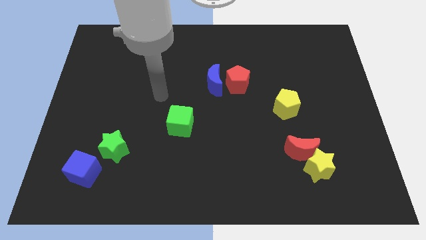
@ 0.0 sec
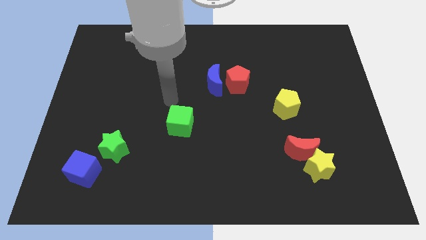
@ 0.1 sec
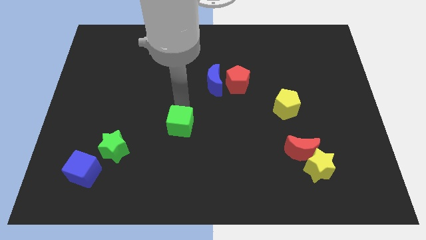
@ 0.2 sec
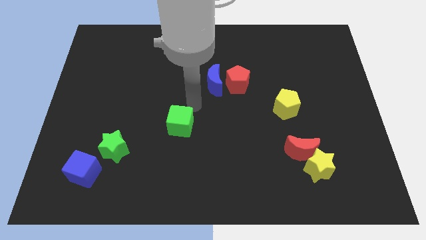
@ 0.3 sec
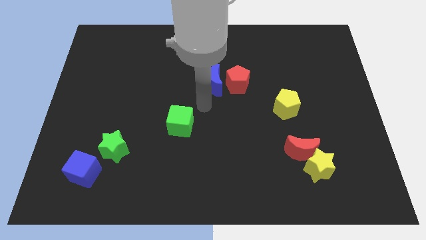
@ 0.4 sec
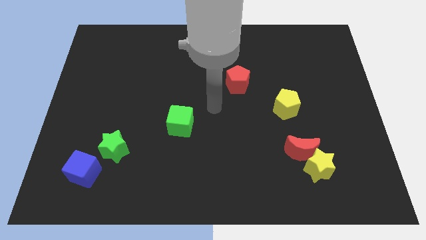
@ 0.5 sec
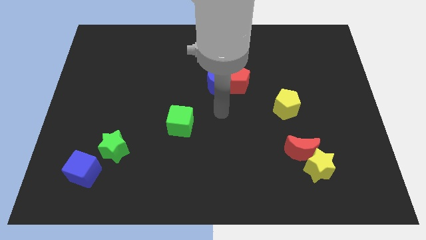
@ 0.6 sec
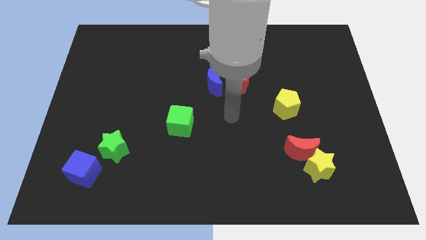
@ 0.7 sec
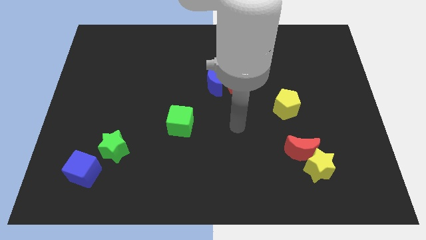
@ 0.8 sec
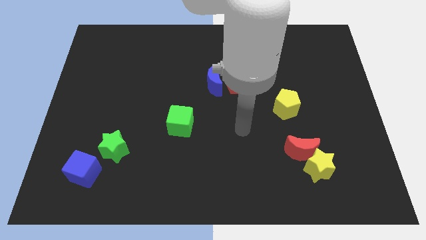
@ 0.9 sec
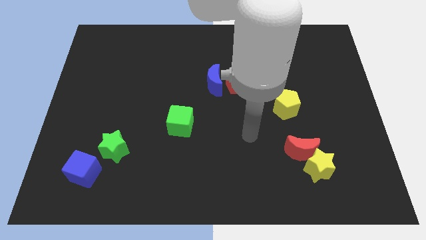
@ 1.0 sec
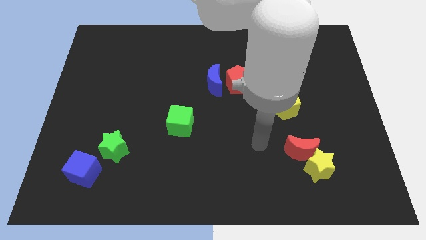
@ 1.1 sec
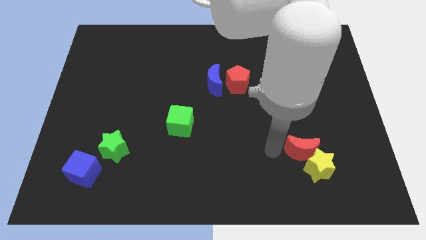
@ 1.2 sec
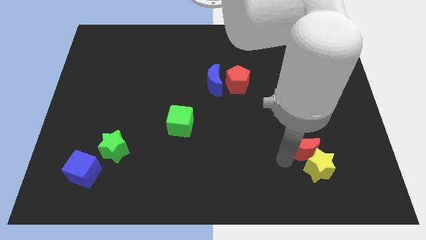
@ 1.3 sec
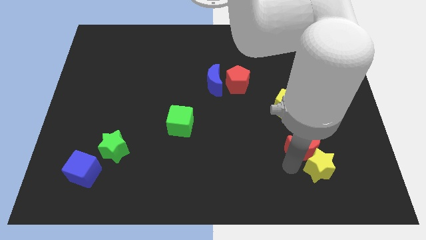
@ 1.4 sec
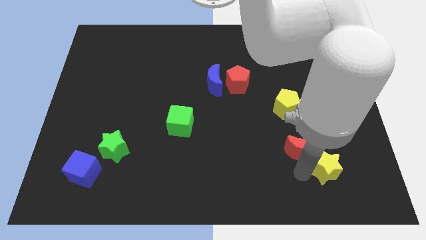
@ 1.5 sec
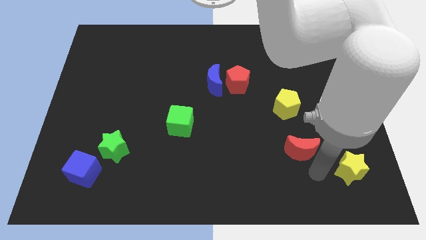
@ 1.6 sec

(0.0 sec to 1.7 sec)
separate the red moon from the yellow star

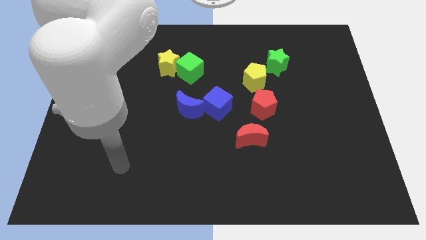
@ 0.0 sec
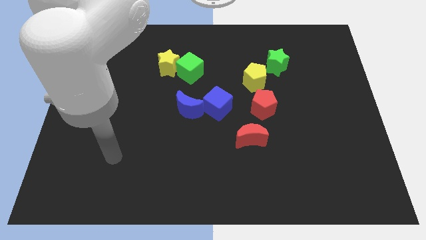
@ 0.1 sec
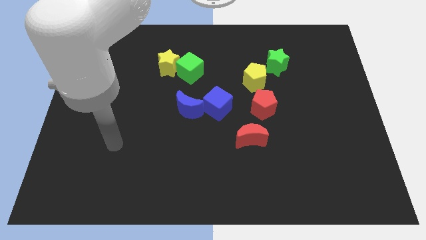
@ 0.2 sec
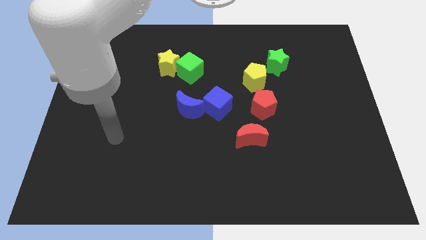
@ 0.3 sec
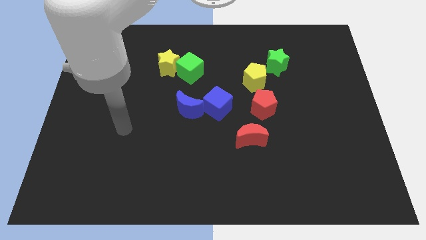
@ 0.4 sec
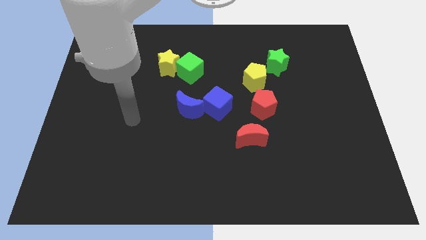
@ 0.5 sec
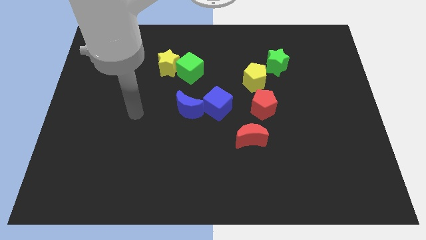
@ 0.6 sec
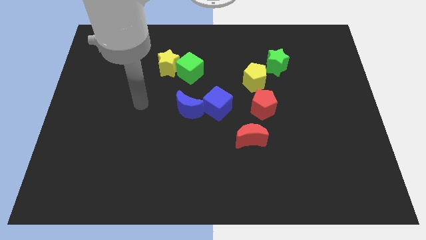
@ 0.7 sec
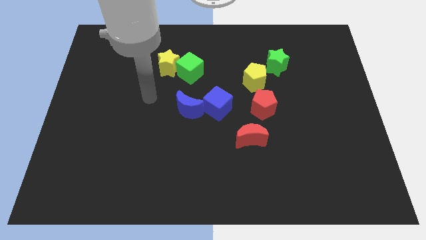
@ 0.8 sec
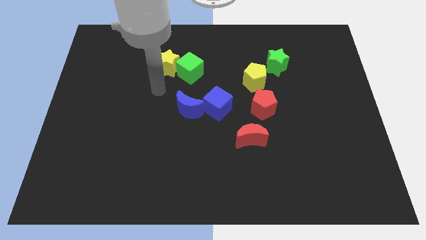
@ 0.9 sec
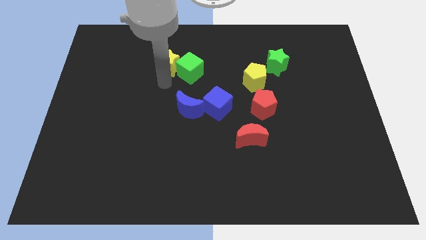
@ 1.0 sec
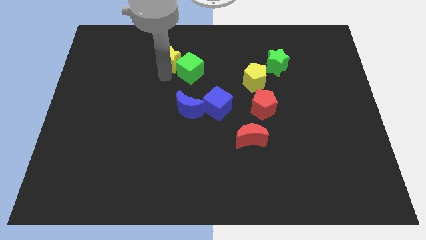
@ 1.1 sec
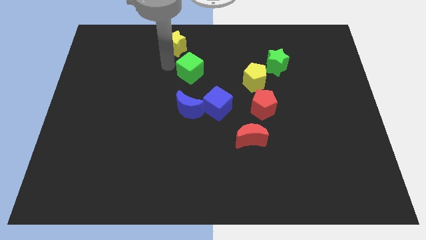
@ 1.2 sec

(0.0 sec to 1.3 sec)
move the green cube away from the yellow star

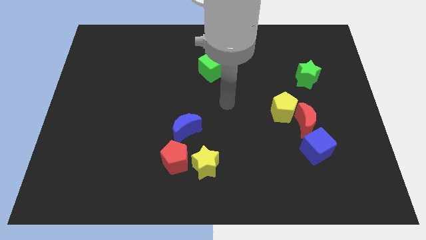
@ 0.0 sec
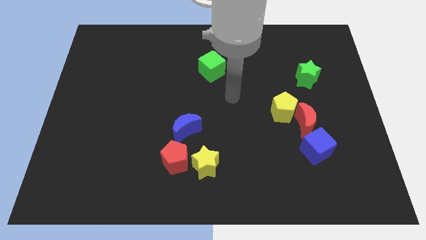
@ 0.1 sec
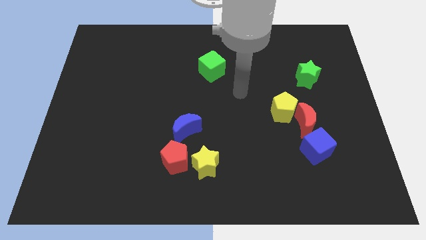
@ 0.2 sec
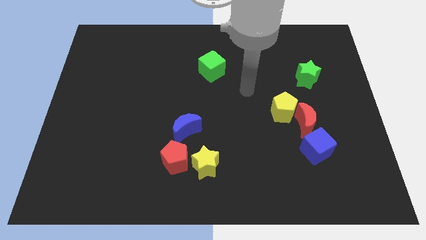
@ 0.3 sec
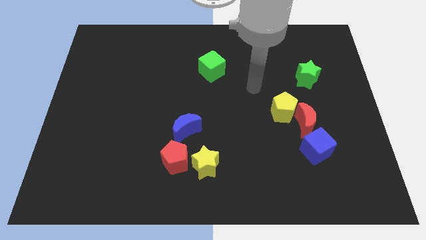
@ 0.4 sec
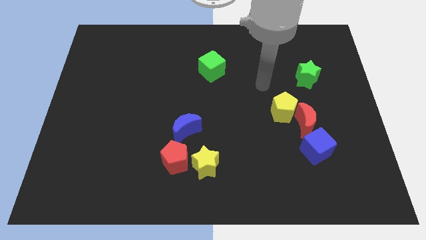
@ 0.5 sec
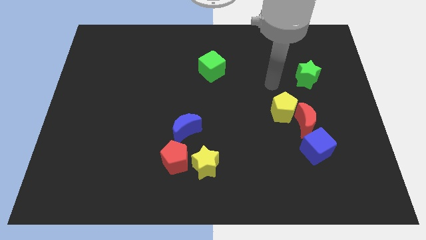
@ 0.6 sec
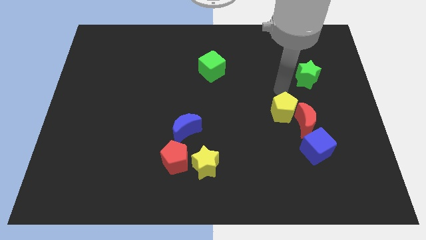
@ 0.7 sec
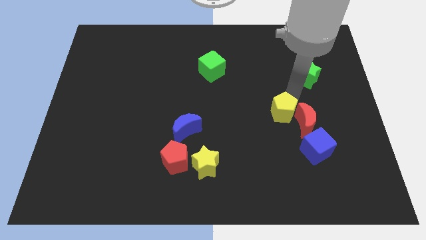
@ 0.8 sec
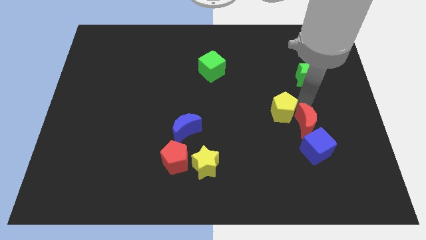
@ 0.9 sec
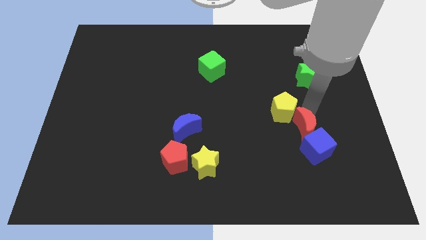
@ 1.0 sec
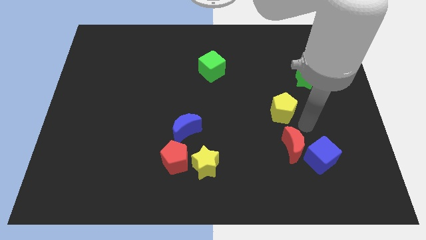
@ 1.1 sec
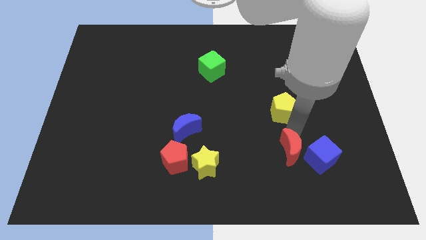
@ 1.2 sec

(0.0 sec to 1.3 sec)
pull the yellow pentagon apart from the red moon

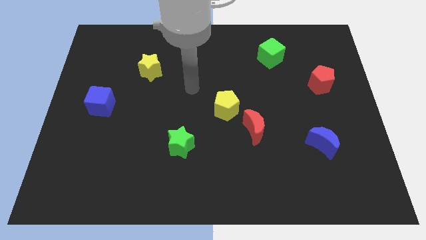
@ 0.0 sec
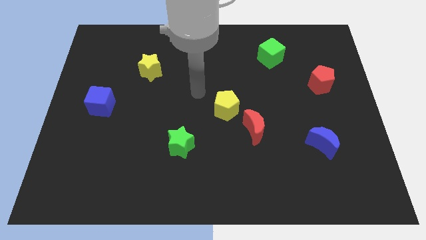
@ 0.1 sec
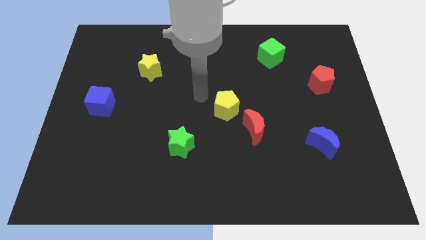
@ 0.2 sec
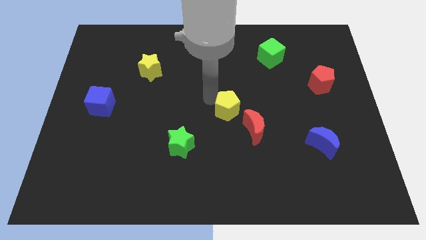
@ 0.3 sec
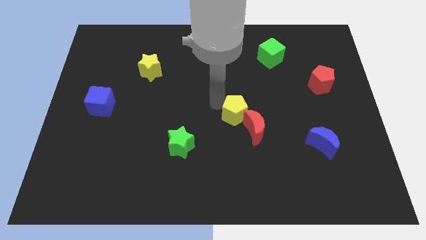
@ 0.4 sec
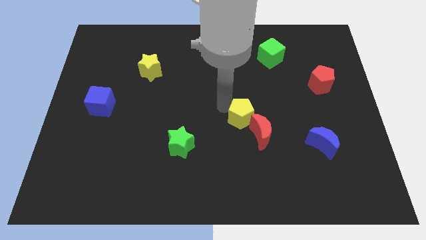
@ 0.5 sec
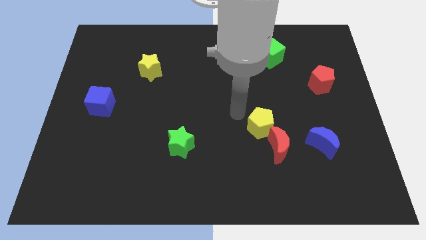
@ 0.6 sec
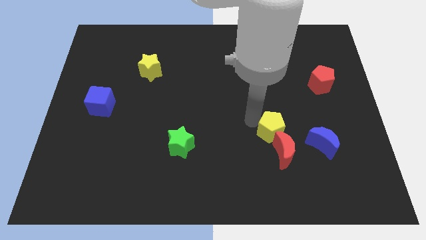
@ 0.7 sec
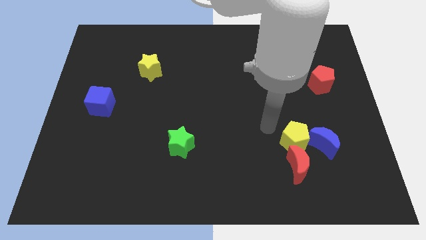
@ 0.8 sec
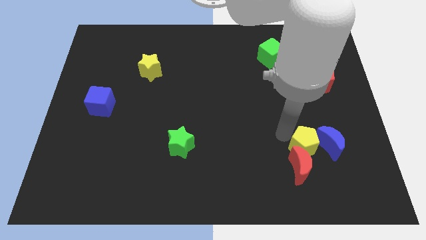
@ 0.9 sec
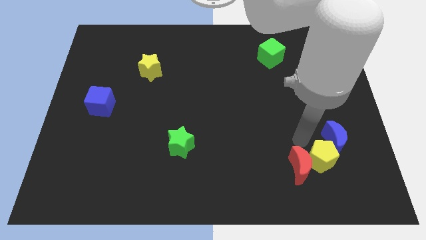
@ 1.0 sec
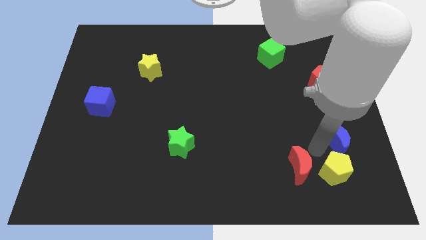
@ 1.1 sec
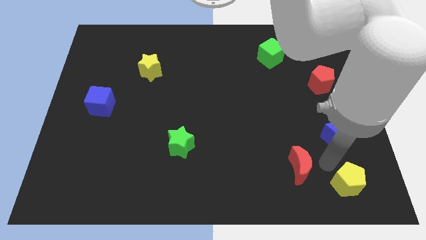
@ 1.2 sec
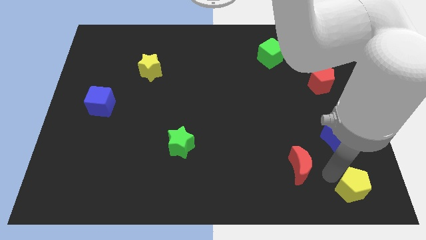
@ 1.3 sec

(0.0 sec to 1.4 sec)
pull the red moon apart from the yellow pentagon

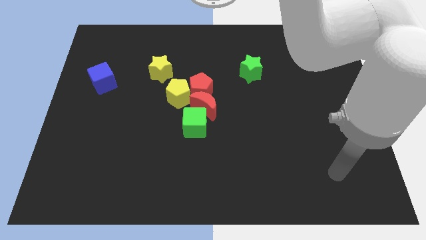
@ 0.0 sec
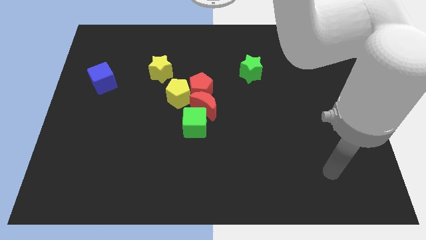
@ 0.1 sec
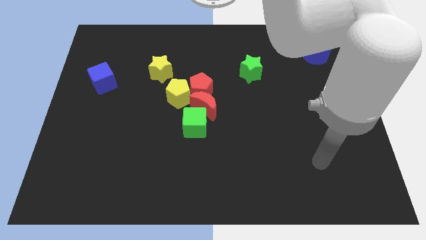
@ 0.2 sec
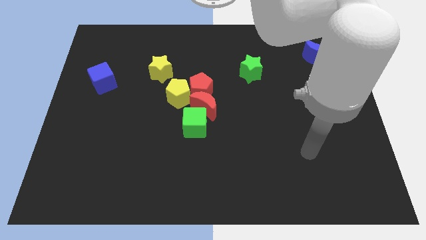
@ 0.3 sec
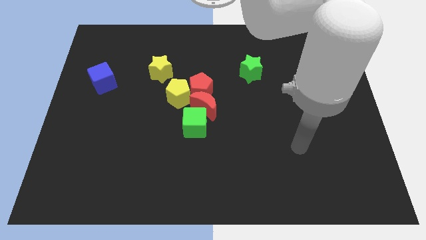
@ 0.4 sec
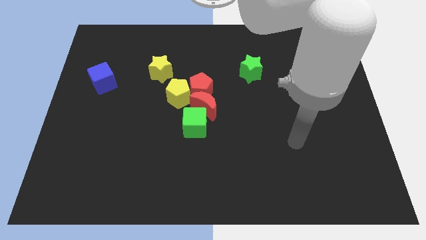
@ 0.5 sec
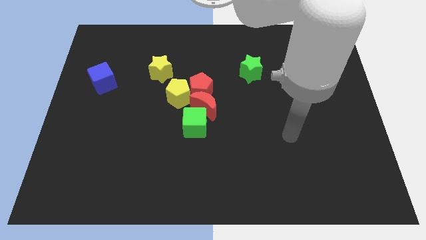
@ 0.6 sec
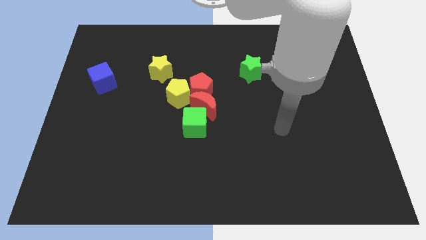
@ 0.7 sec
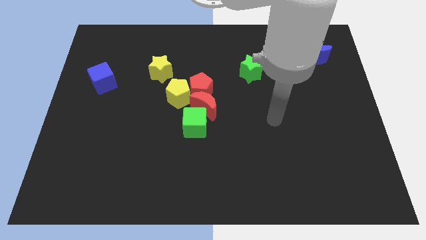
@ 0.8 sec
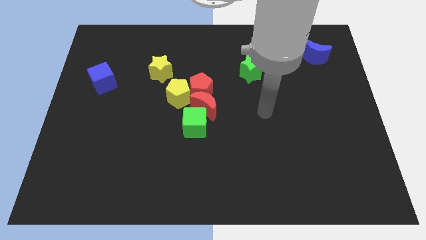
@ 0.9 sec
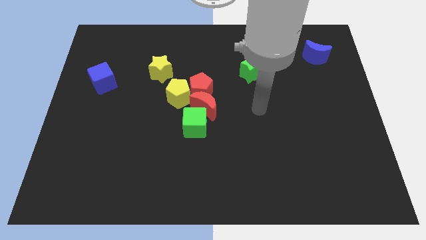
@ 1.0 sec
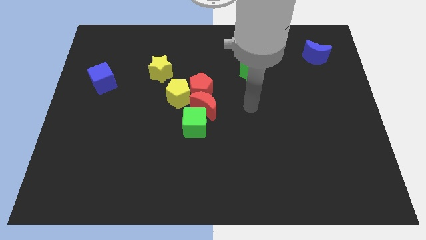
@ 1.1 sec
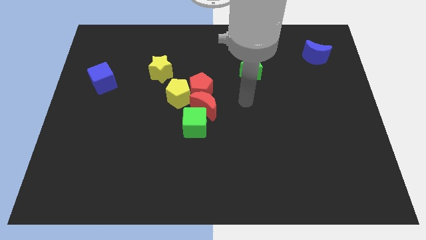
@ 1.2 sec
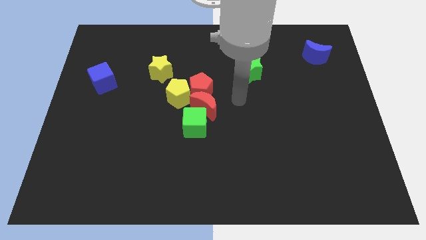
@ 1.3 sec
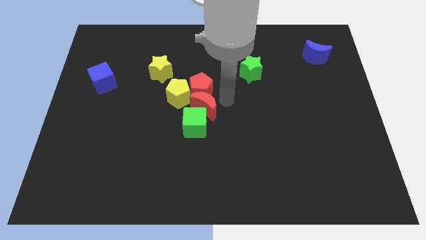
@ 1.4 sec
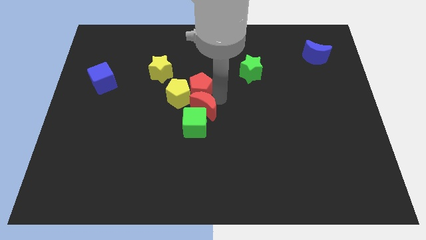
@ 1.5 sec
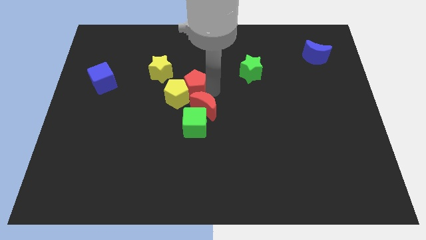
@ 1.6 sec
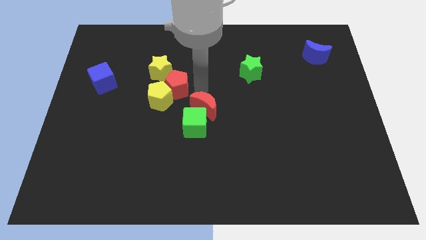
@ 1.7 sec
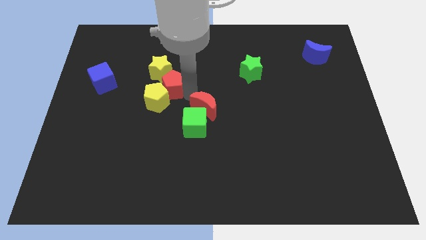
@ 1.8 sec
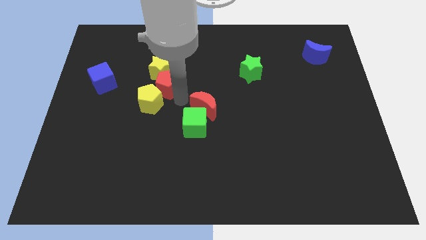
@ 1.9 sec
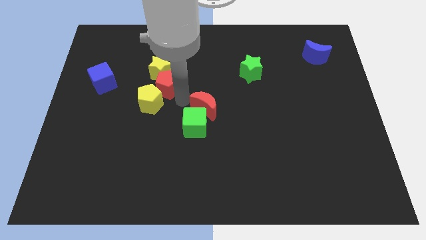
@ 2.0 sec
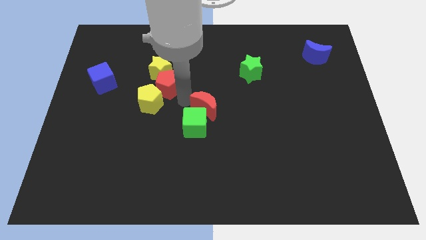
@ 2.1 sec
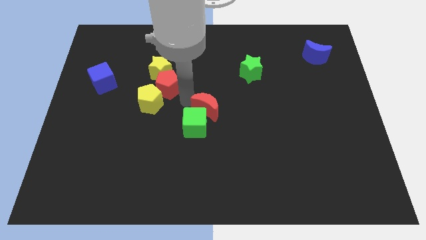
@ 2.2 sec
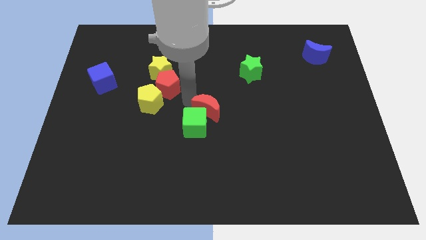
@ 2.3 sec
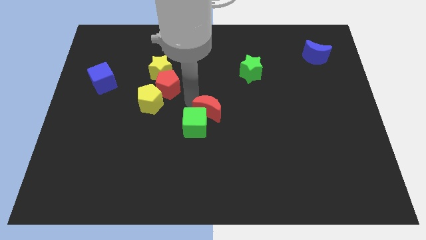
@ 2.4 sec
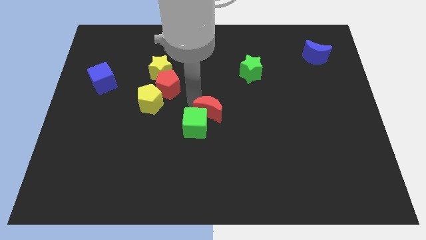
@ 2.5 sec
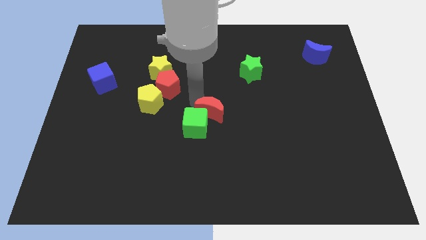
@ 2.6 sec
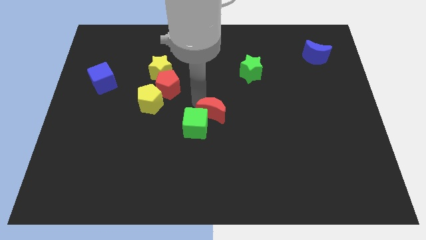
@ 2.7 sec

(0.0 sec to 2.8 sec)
pull the red moon apart from the red pentagon, green cube, and yellow pentagon

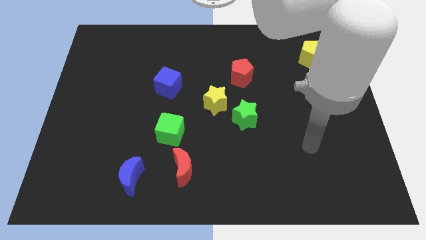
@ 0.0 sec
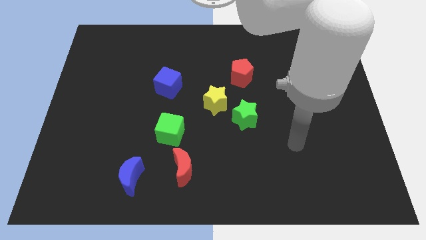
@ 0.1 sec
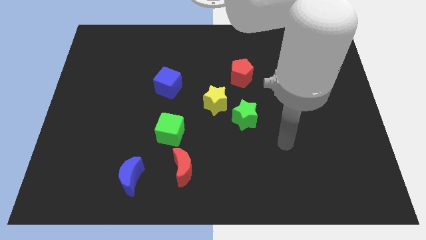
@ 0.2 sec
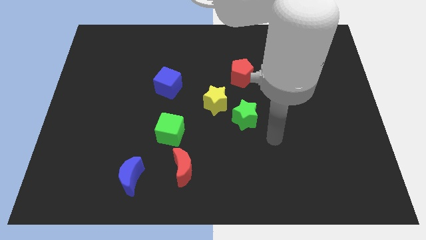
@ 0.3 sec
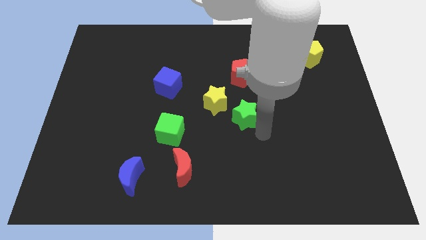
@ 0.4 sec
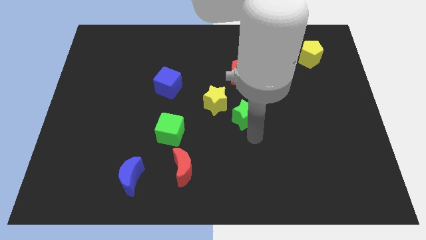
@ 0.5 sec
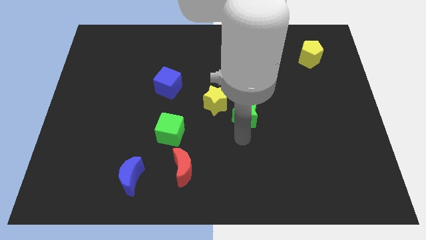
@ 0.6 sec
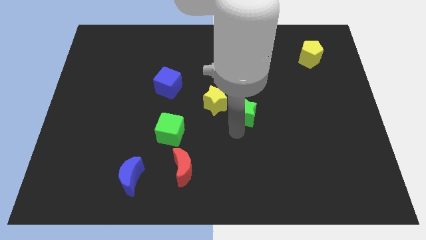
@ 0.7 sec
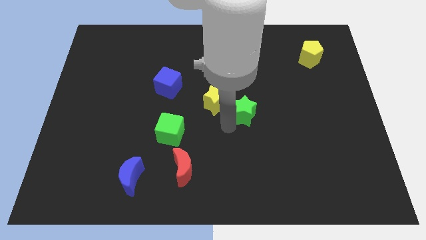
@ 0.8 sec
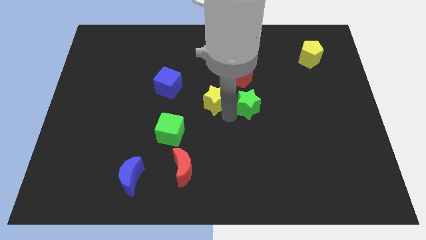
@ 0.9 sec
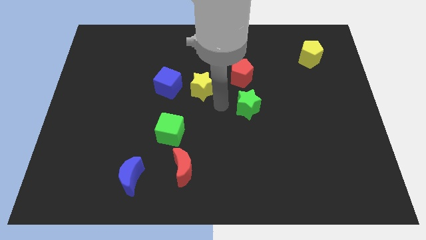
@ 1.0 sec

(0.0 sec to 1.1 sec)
move the green star away from the yellow star
